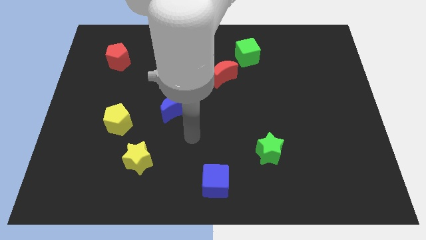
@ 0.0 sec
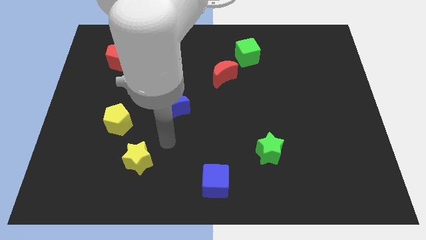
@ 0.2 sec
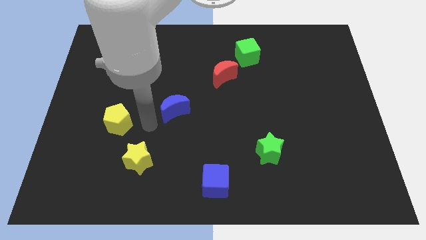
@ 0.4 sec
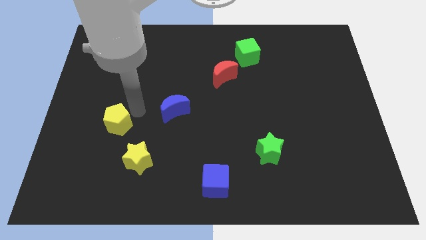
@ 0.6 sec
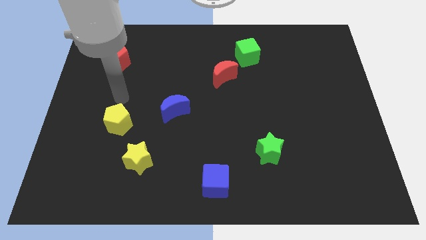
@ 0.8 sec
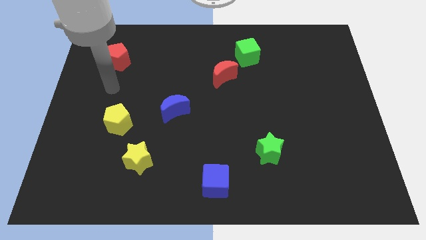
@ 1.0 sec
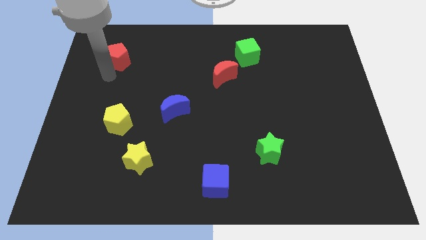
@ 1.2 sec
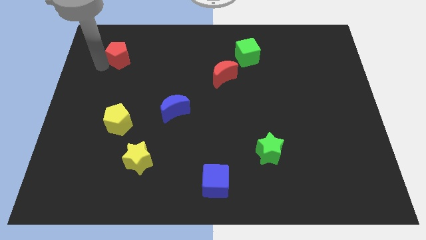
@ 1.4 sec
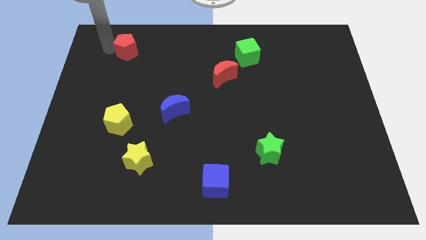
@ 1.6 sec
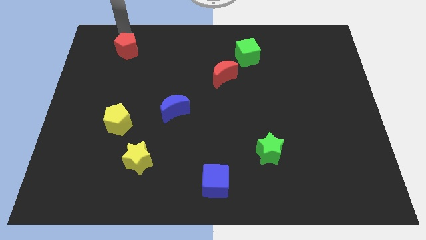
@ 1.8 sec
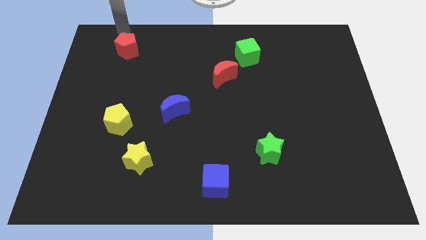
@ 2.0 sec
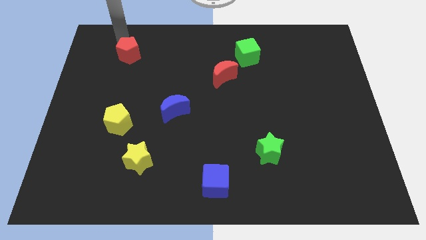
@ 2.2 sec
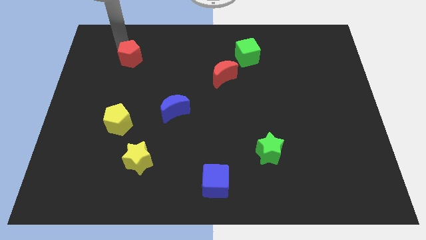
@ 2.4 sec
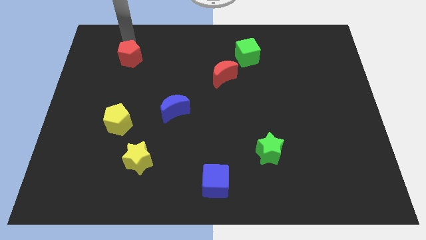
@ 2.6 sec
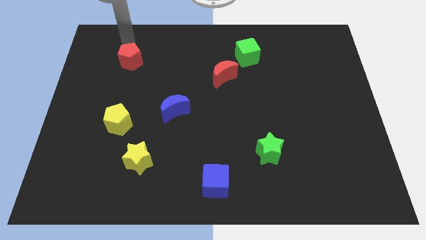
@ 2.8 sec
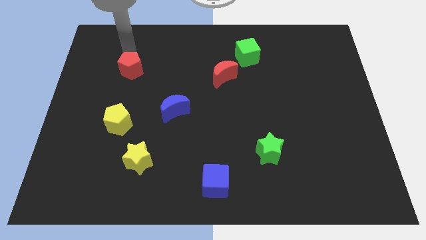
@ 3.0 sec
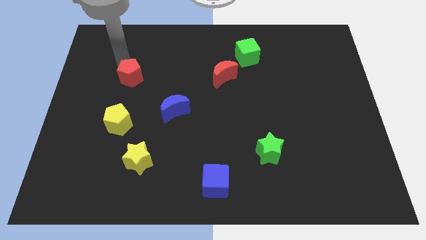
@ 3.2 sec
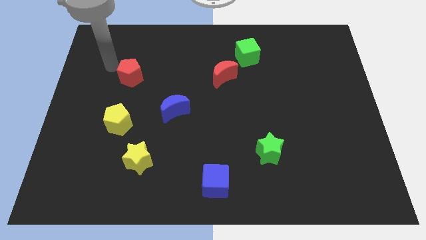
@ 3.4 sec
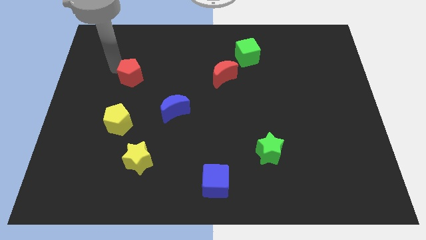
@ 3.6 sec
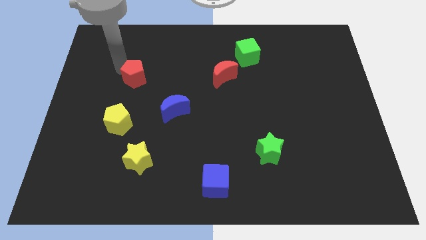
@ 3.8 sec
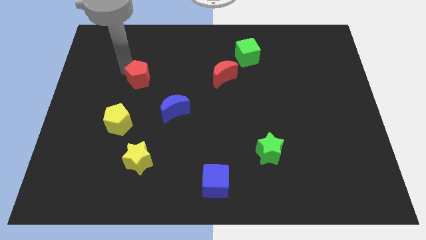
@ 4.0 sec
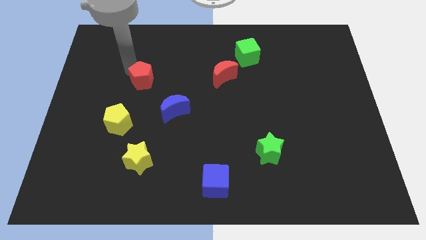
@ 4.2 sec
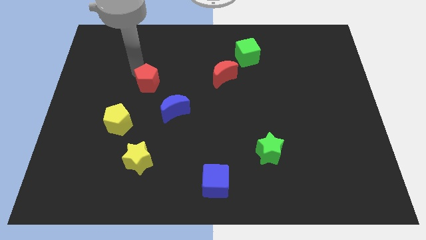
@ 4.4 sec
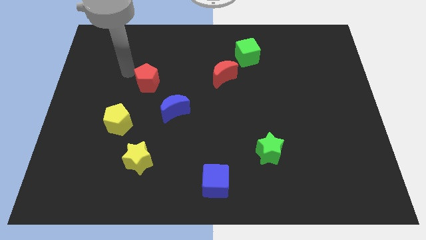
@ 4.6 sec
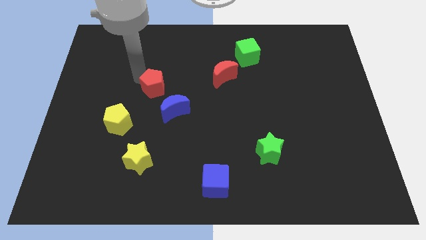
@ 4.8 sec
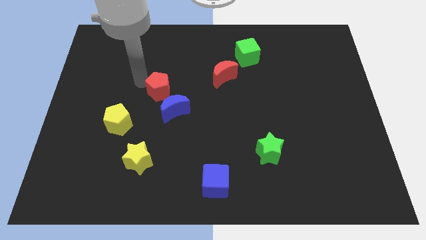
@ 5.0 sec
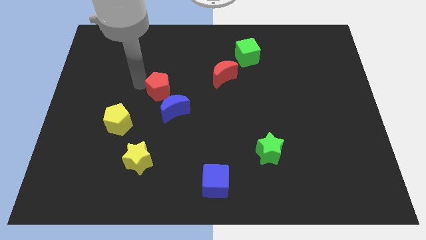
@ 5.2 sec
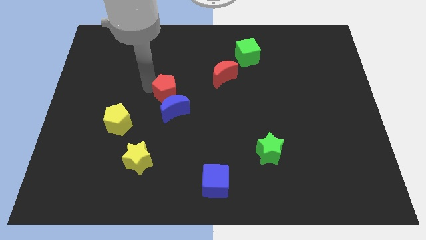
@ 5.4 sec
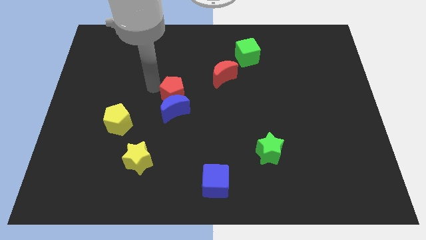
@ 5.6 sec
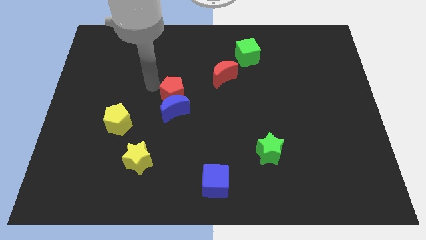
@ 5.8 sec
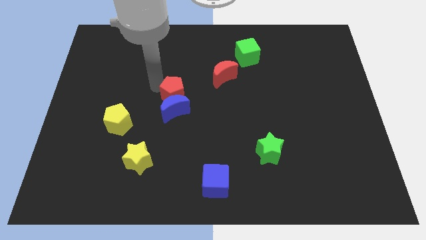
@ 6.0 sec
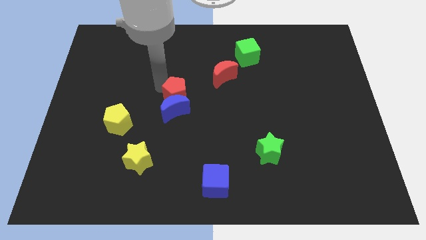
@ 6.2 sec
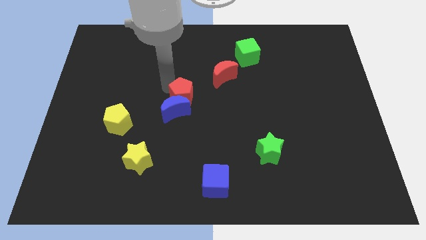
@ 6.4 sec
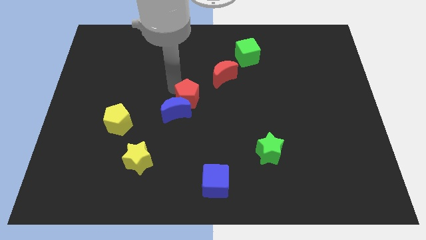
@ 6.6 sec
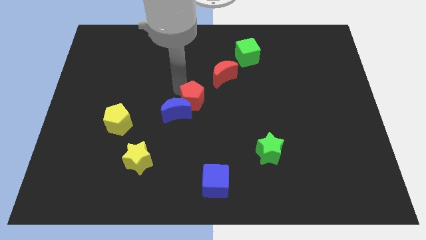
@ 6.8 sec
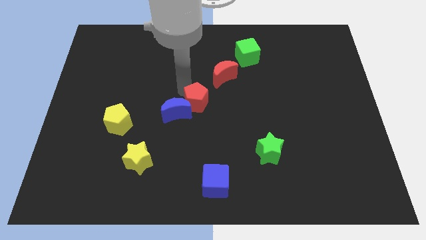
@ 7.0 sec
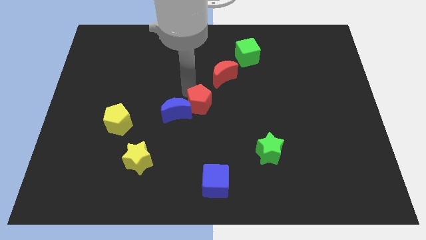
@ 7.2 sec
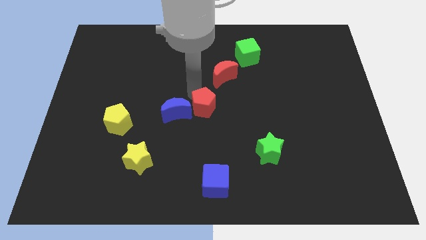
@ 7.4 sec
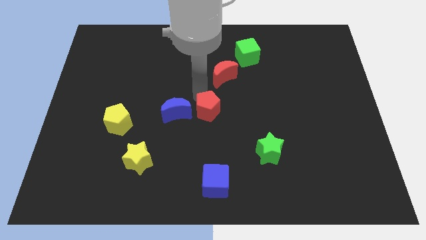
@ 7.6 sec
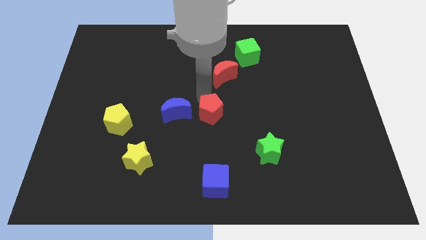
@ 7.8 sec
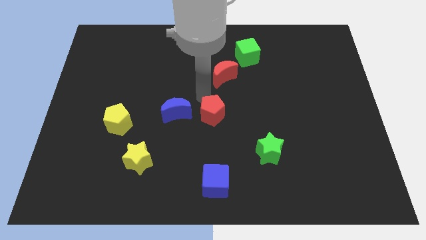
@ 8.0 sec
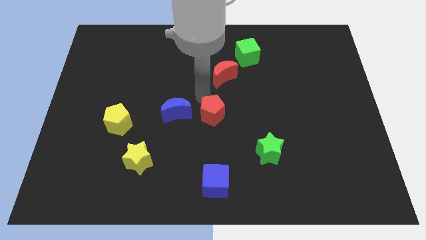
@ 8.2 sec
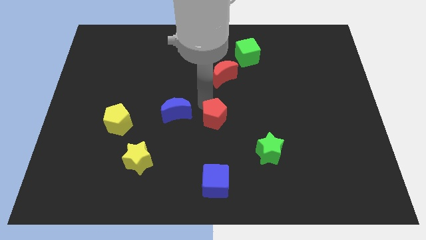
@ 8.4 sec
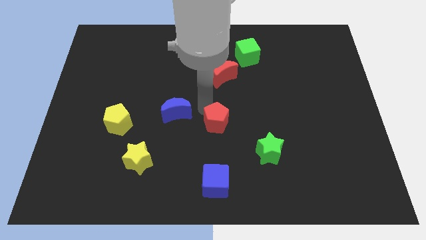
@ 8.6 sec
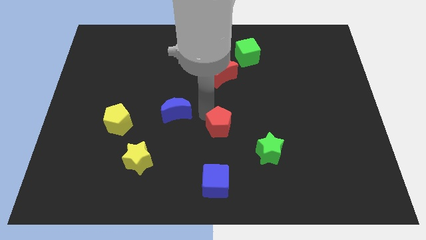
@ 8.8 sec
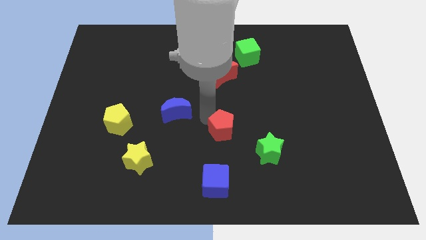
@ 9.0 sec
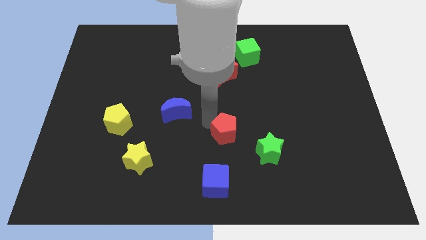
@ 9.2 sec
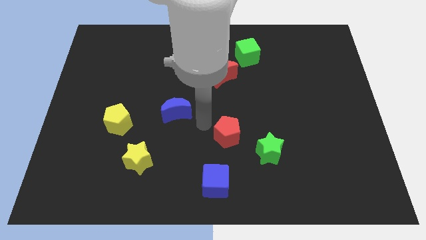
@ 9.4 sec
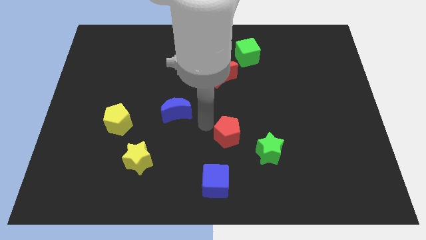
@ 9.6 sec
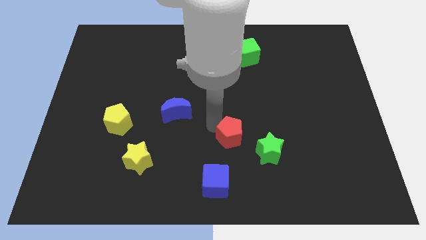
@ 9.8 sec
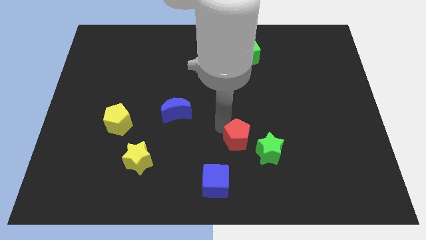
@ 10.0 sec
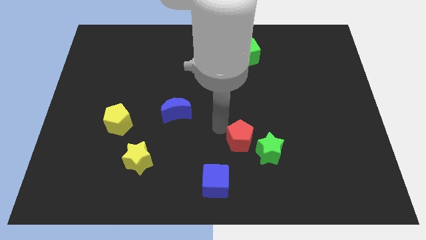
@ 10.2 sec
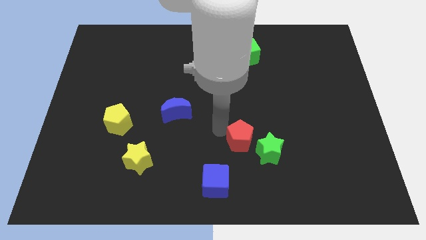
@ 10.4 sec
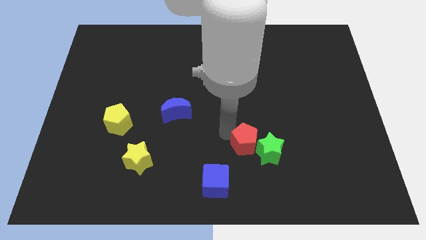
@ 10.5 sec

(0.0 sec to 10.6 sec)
move the red pentagon close to the green star

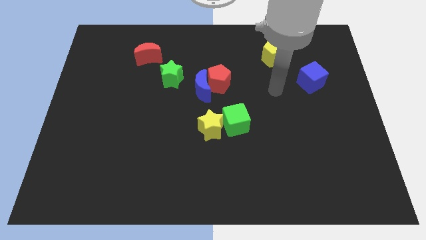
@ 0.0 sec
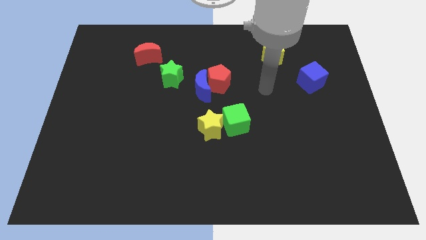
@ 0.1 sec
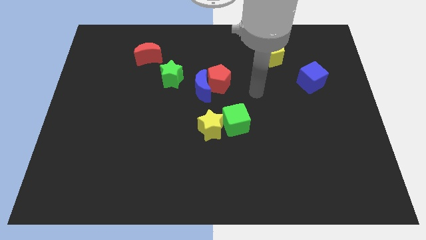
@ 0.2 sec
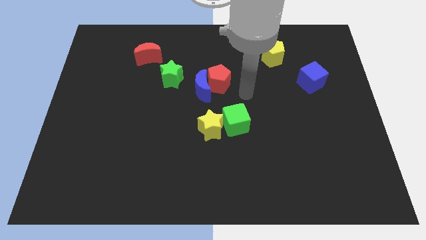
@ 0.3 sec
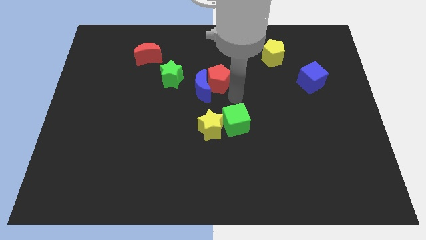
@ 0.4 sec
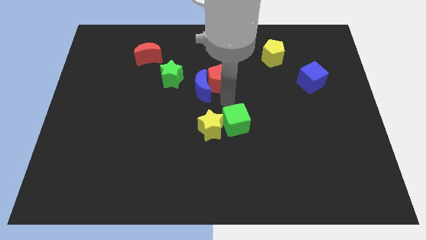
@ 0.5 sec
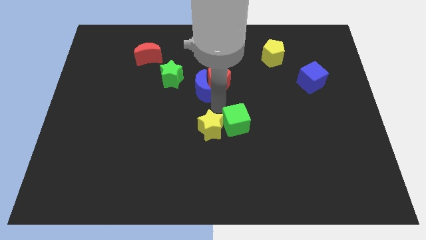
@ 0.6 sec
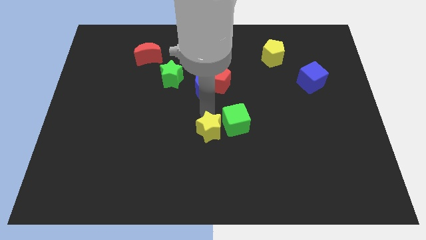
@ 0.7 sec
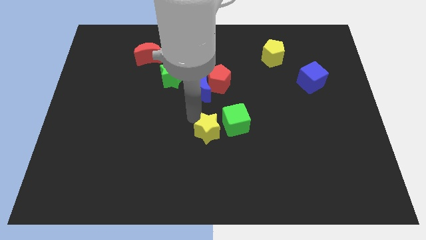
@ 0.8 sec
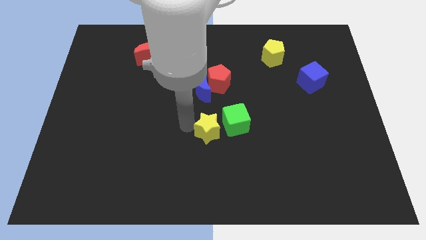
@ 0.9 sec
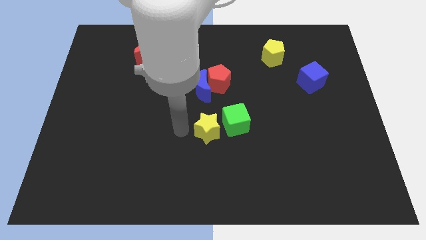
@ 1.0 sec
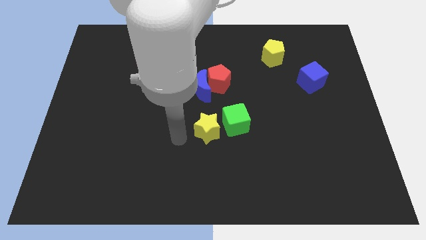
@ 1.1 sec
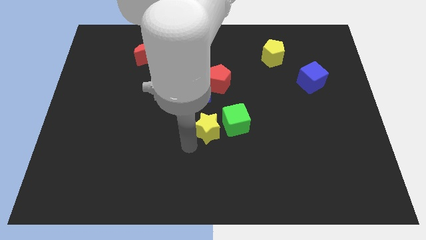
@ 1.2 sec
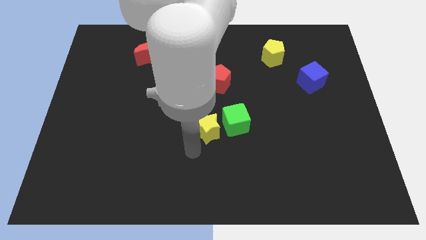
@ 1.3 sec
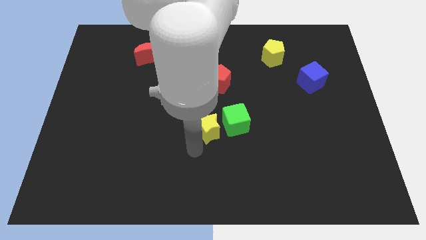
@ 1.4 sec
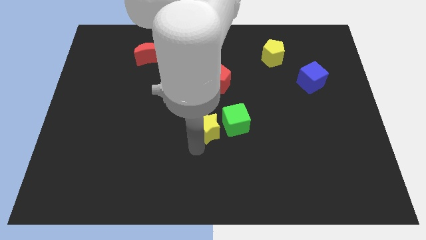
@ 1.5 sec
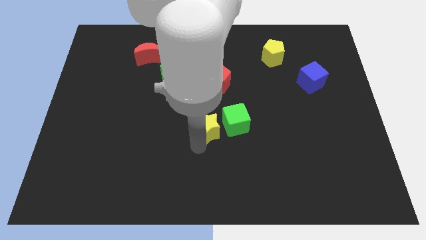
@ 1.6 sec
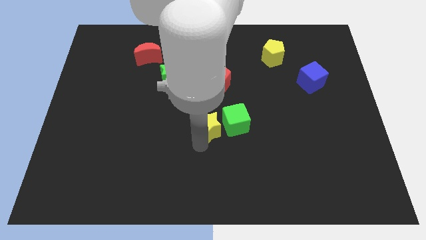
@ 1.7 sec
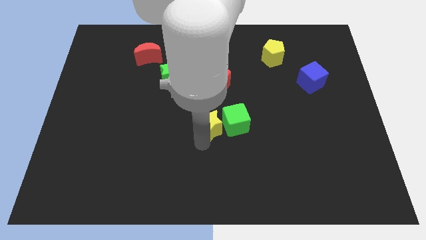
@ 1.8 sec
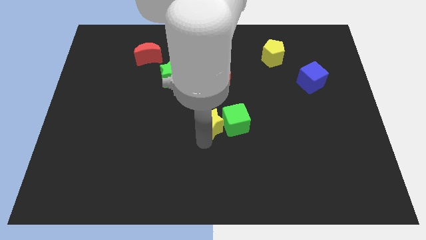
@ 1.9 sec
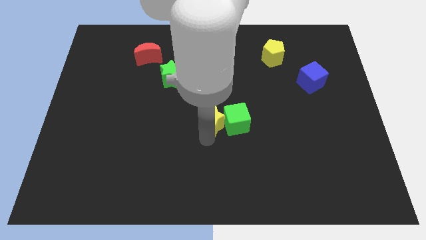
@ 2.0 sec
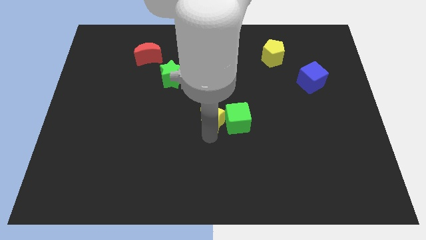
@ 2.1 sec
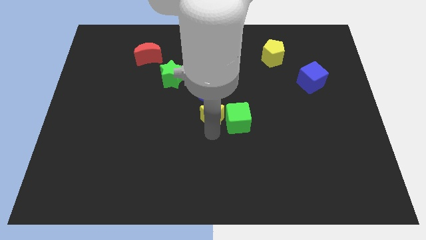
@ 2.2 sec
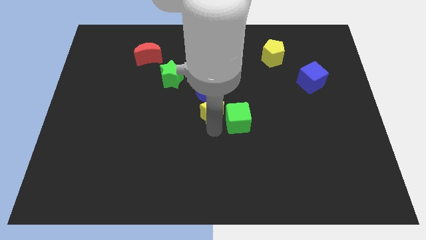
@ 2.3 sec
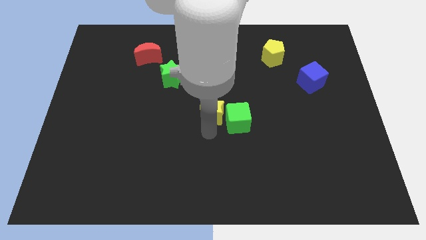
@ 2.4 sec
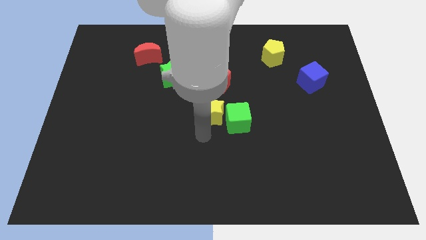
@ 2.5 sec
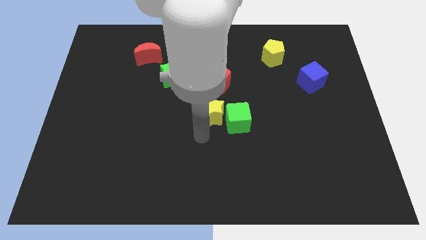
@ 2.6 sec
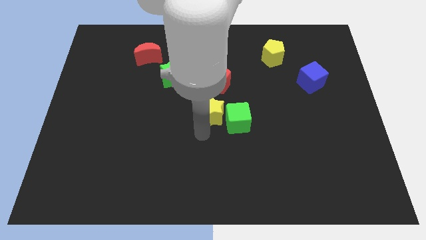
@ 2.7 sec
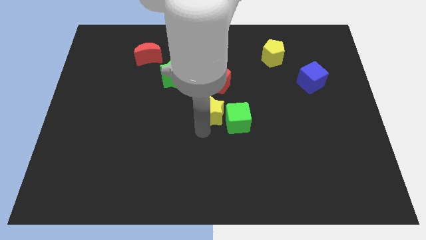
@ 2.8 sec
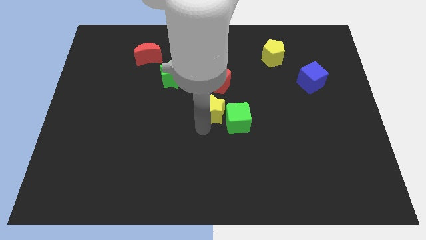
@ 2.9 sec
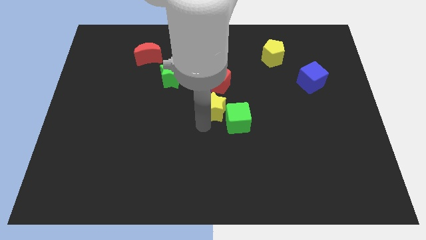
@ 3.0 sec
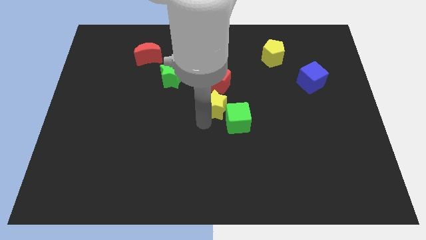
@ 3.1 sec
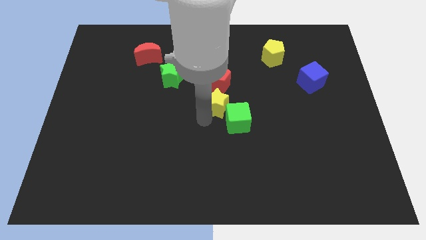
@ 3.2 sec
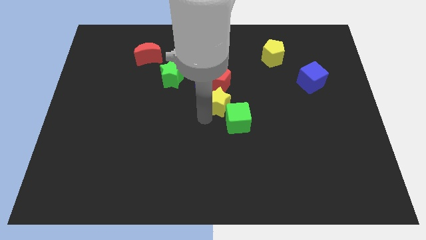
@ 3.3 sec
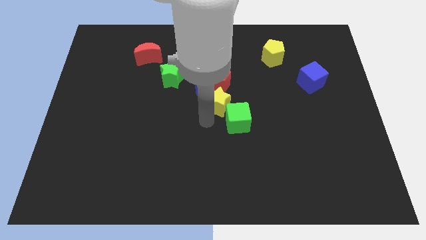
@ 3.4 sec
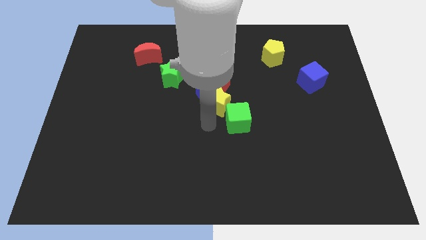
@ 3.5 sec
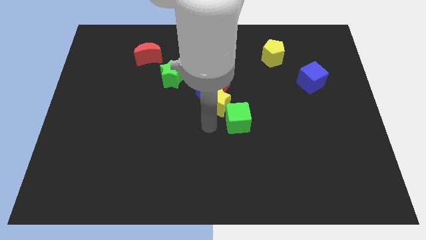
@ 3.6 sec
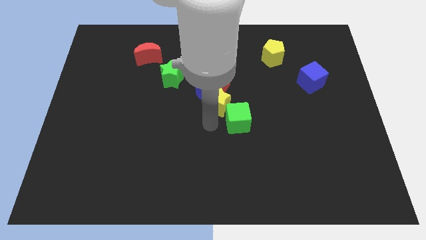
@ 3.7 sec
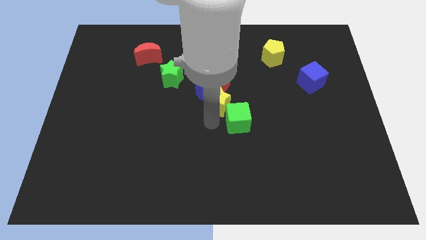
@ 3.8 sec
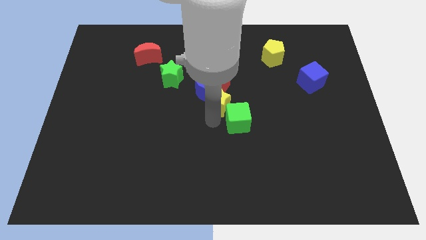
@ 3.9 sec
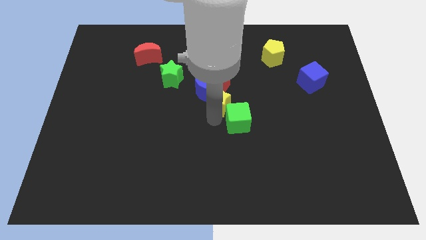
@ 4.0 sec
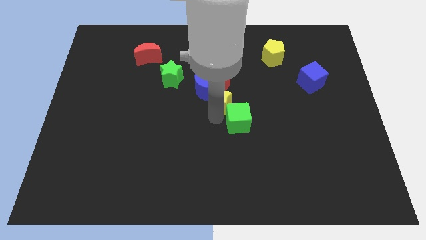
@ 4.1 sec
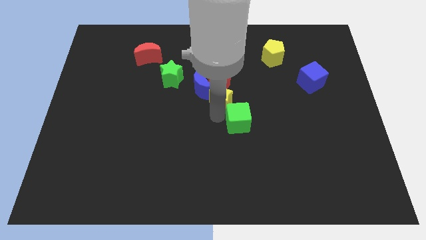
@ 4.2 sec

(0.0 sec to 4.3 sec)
put the yellow star next to the red pentagon
